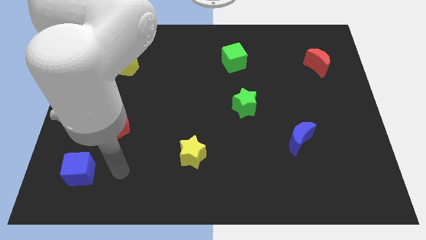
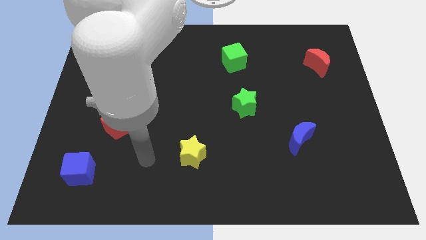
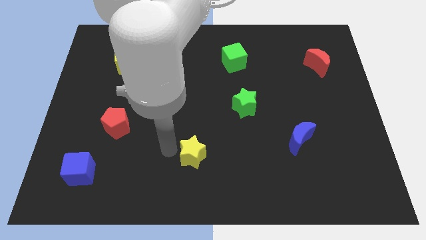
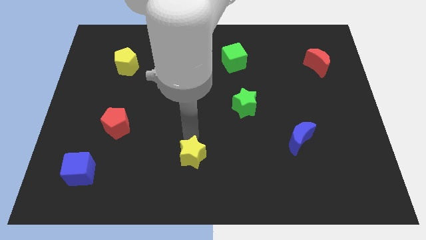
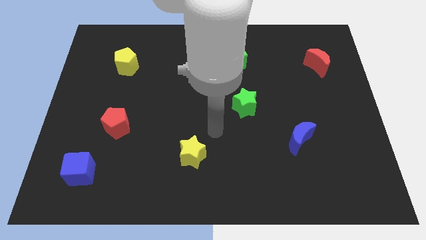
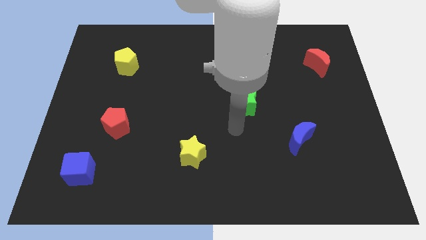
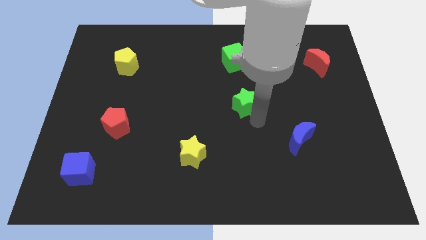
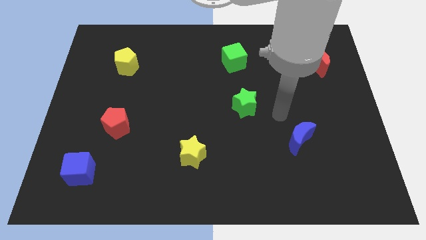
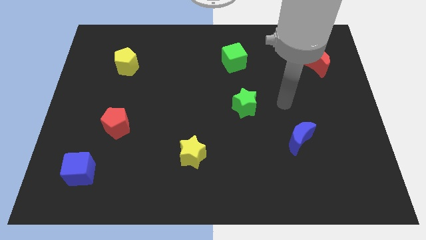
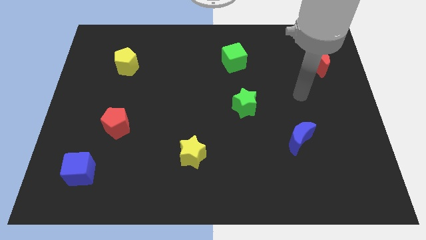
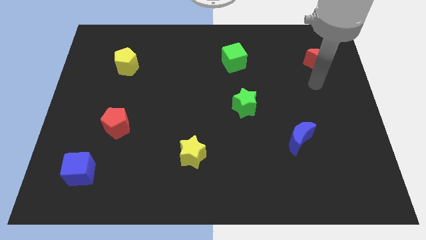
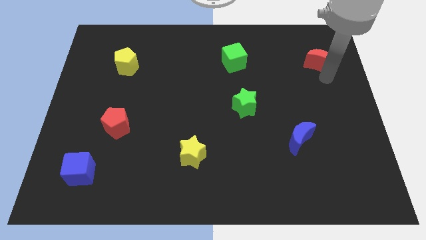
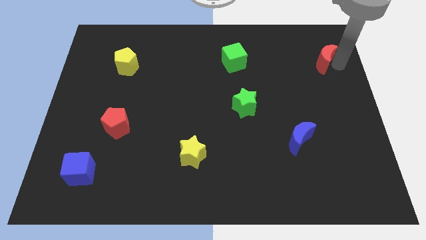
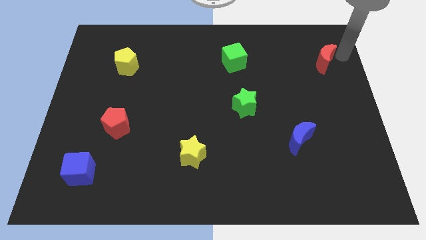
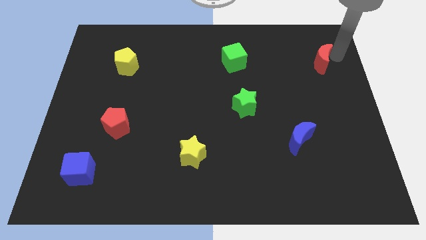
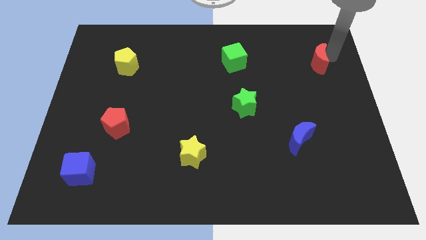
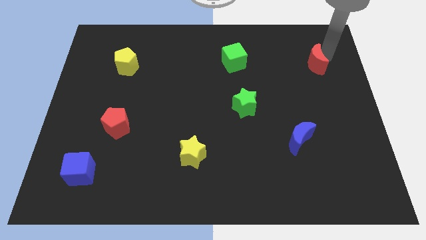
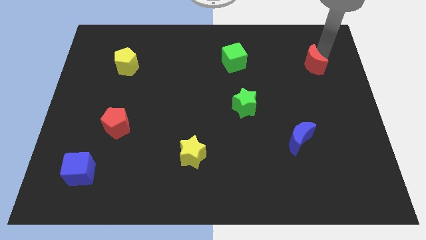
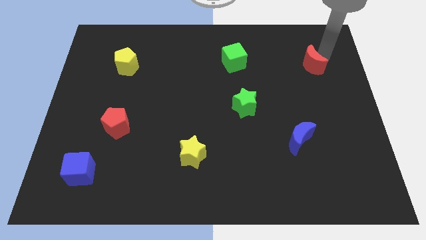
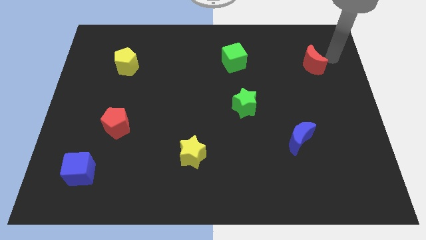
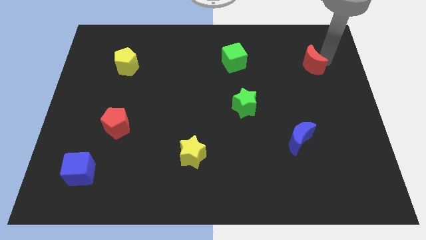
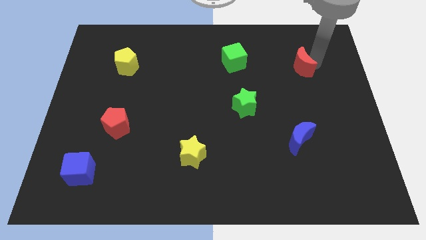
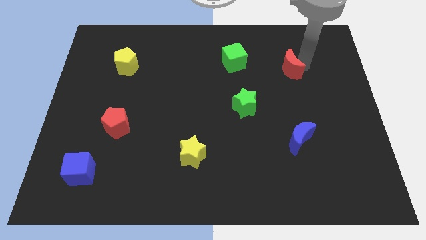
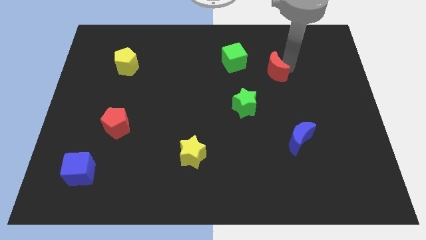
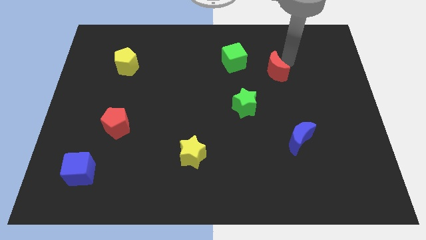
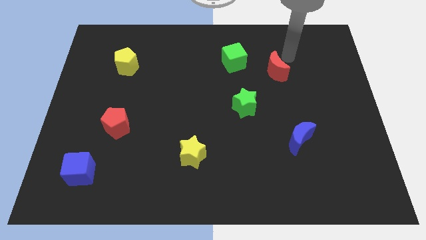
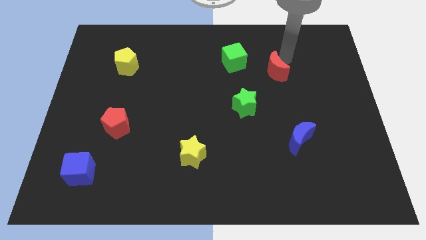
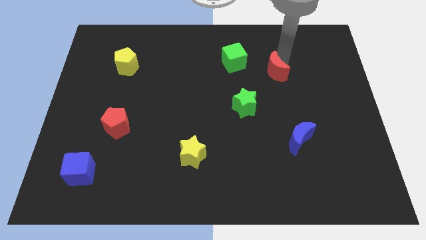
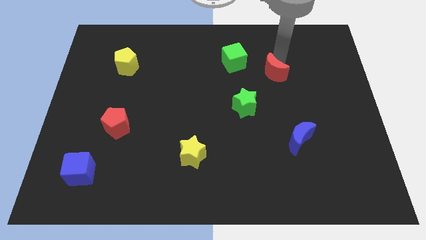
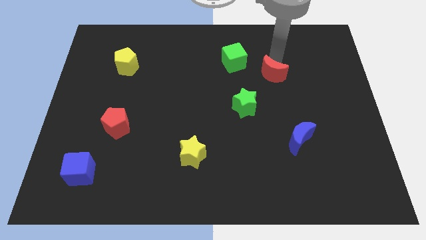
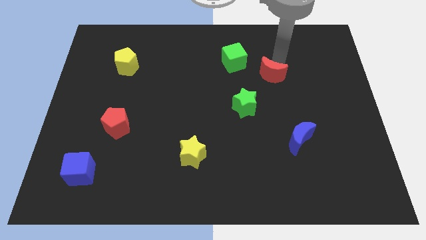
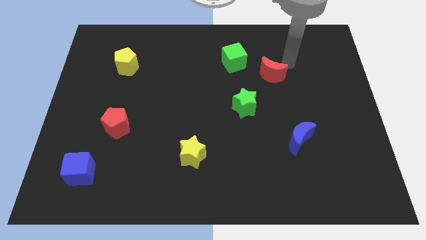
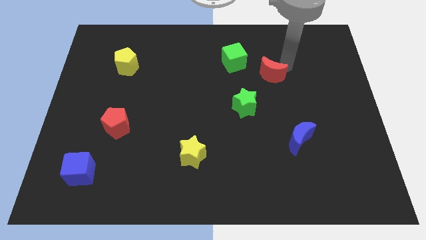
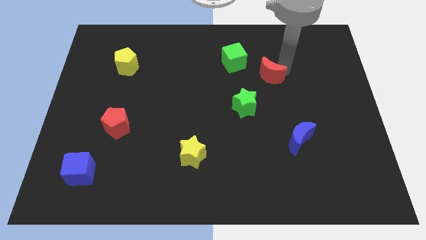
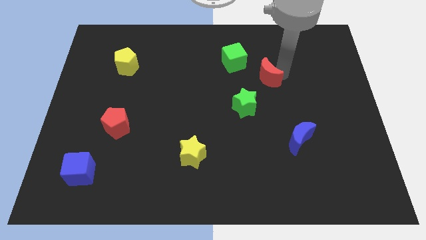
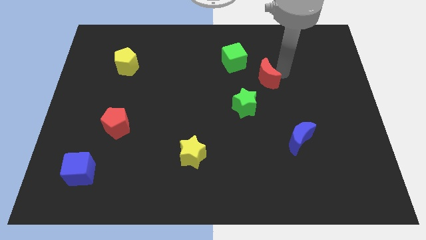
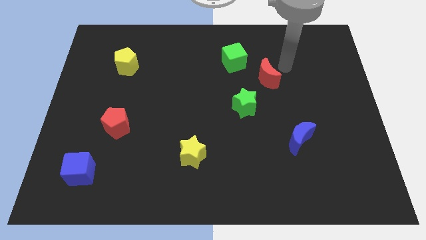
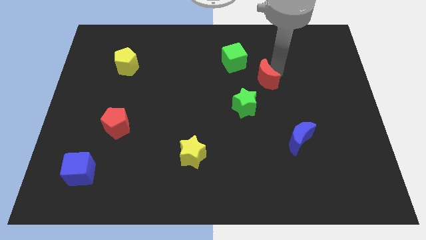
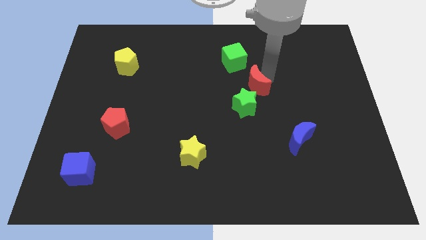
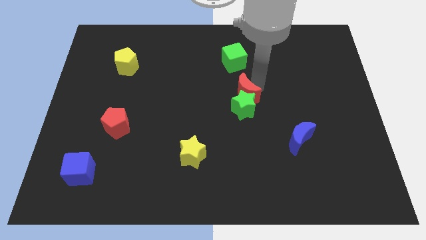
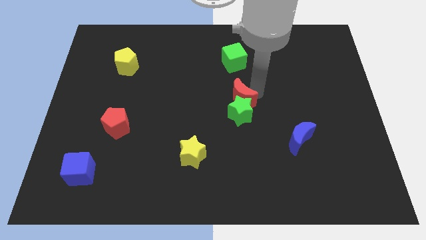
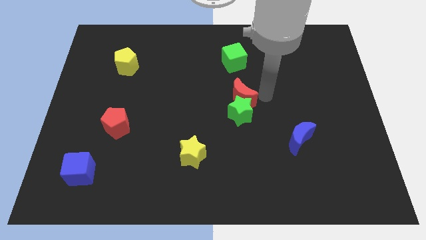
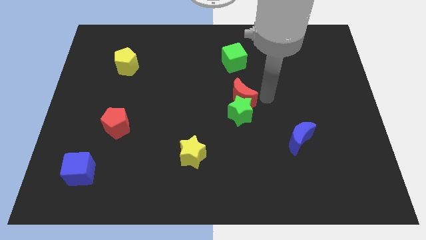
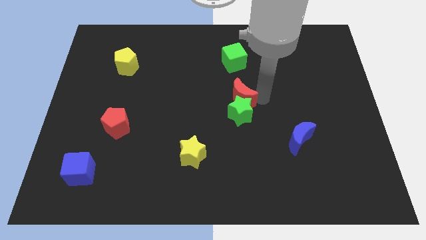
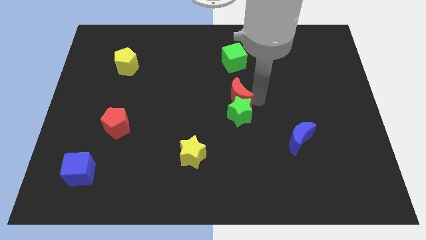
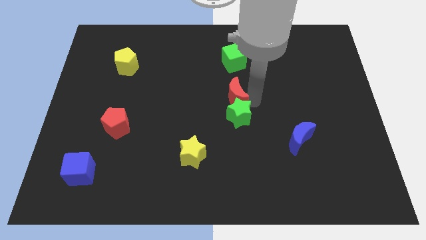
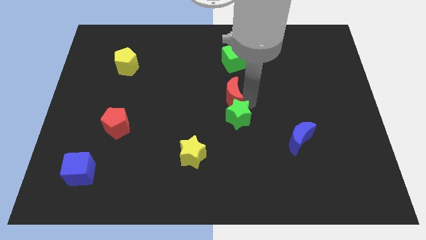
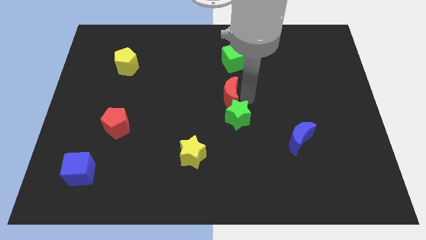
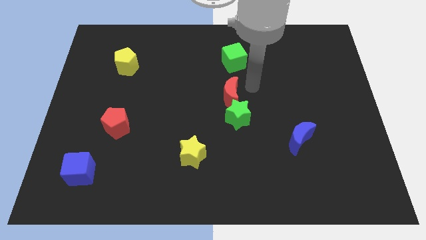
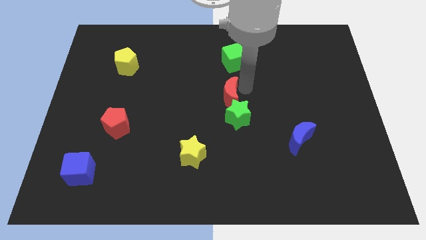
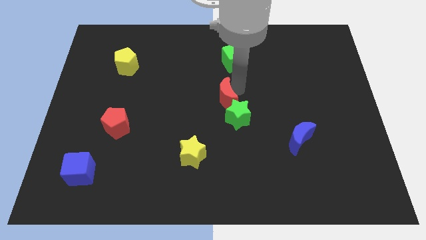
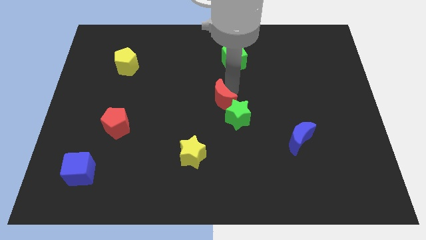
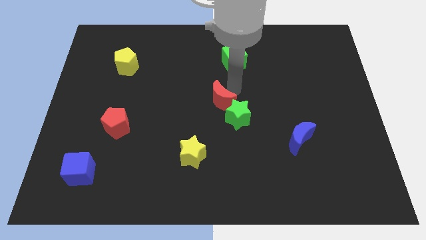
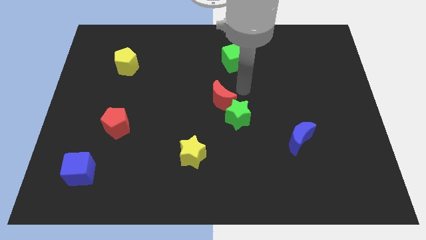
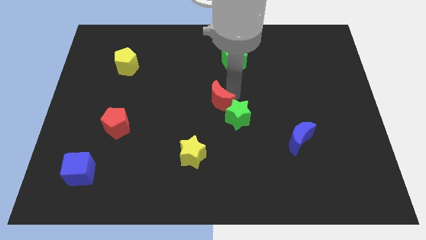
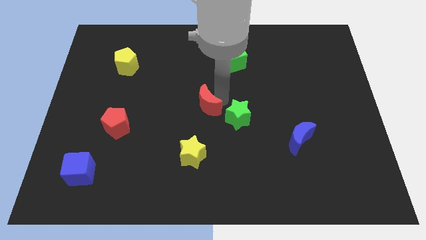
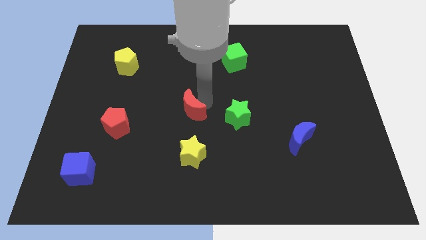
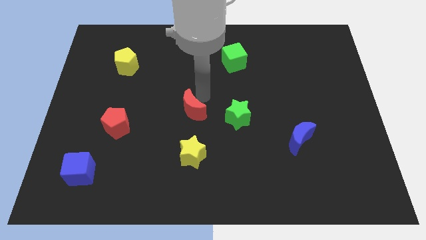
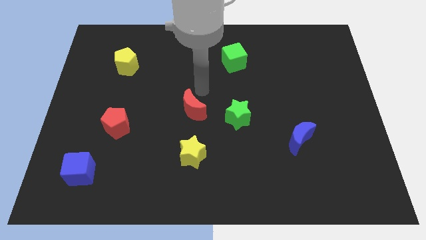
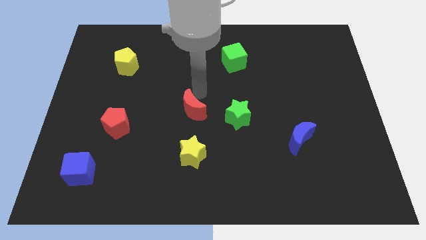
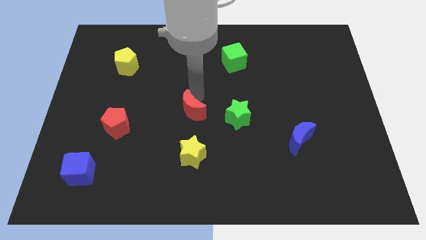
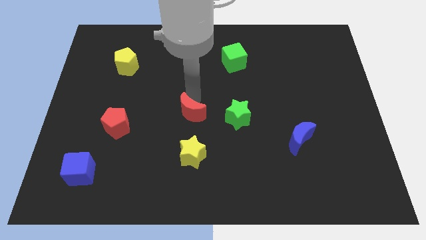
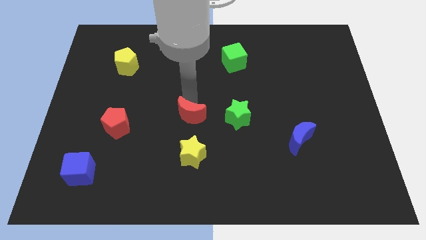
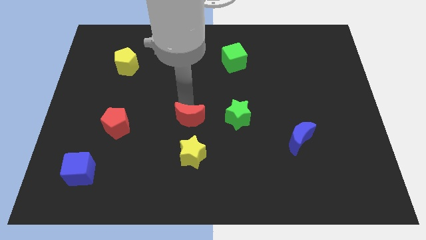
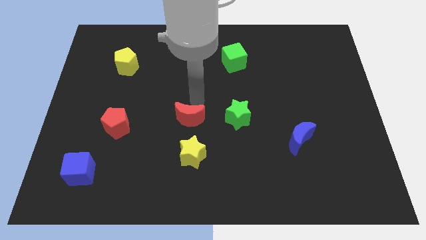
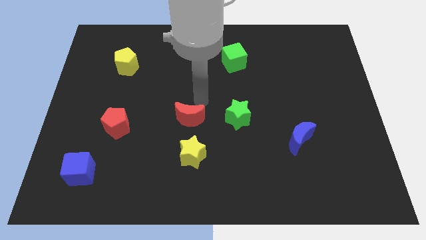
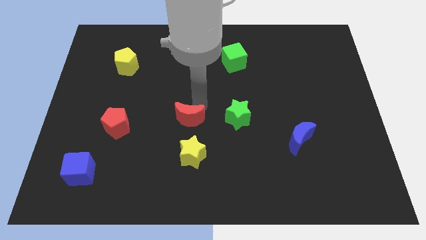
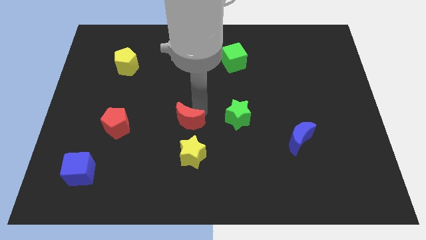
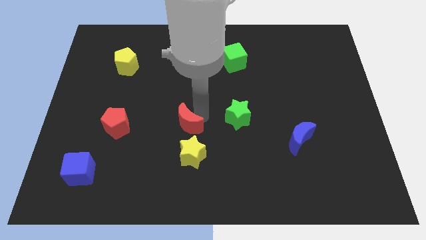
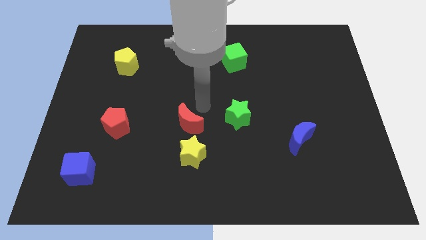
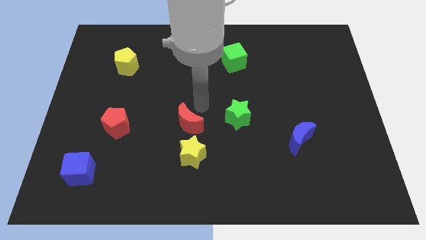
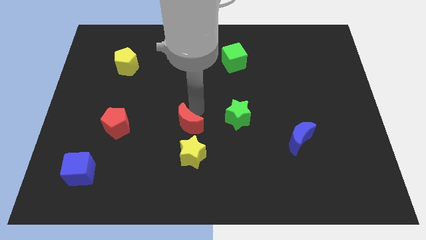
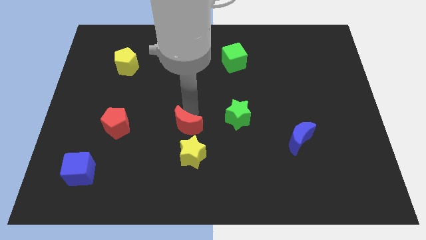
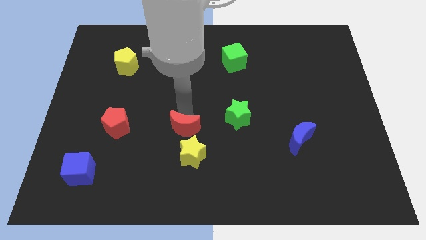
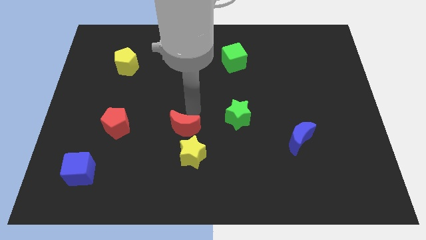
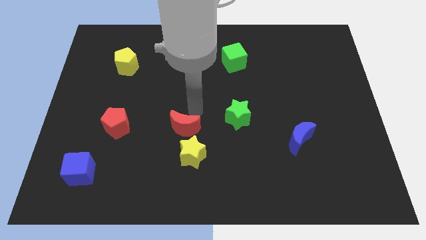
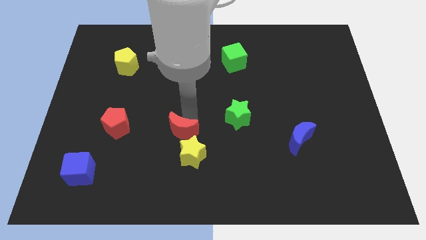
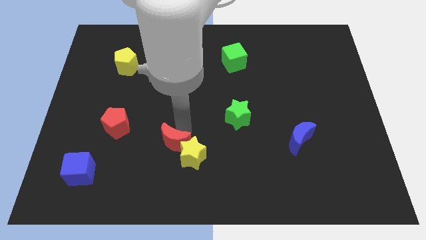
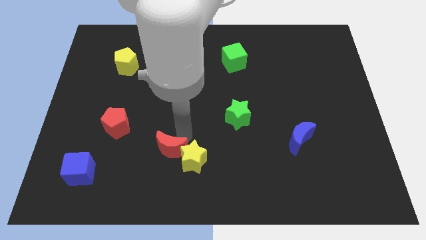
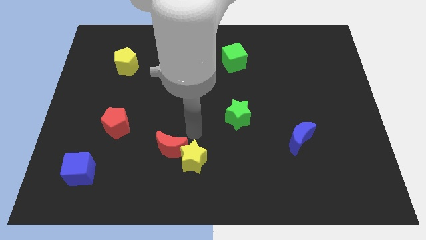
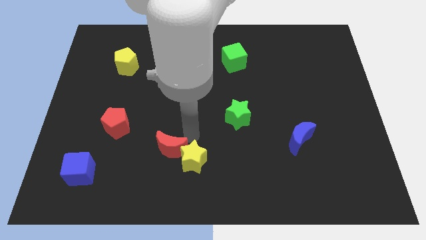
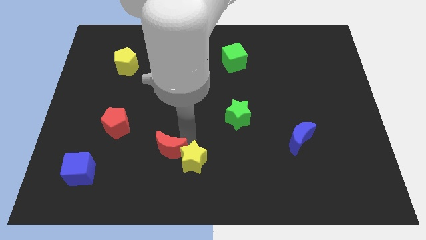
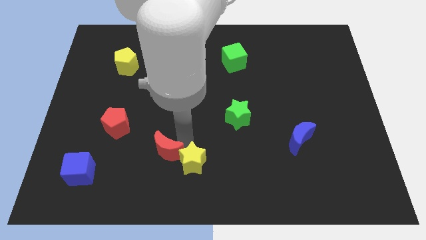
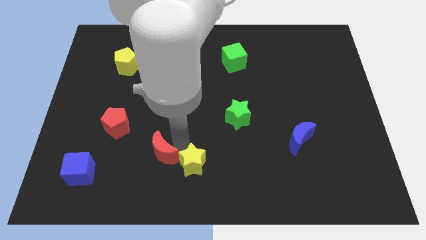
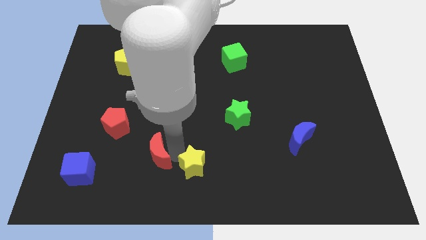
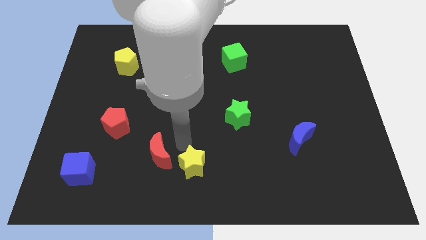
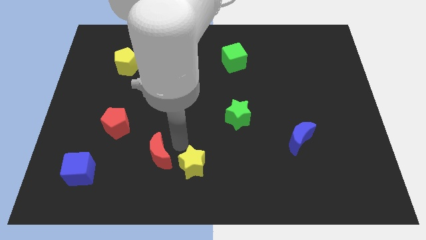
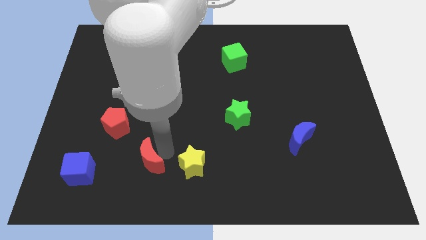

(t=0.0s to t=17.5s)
slide the red moon right of the blue cube
